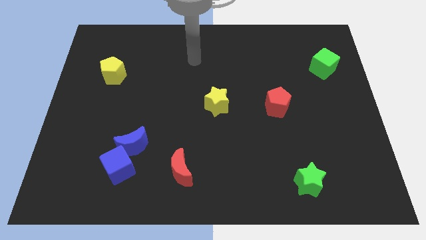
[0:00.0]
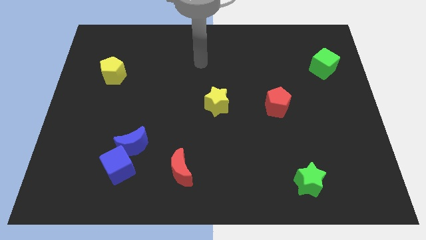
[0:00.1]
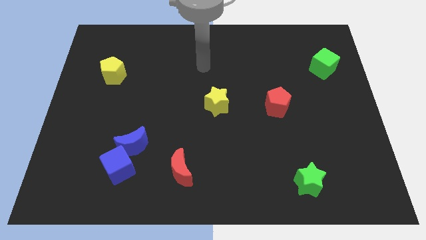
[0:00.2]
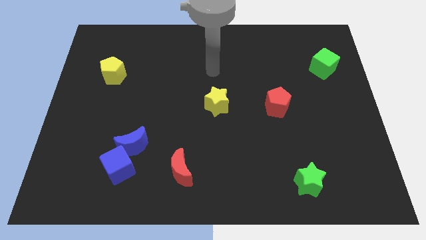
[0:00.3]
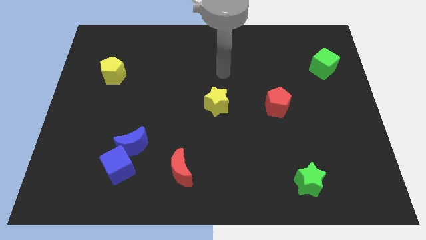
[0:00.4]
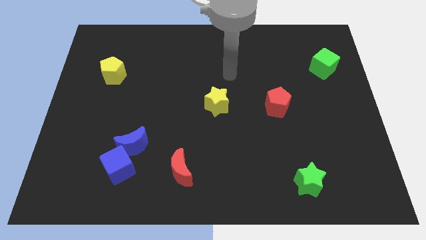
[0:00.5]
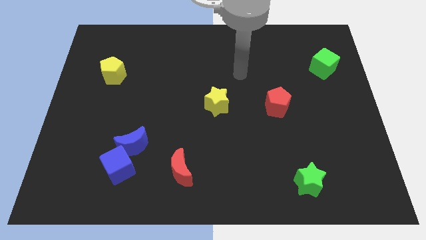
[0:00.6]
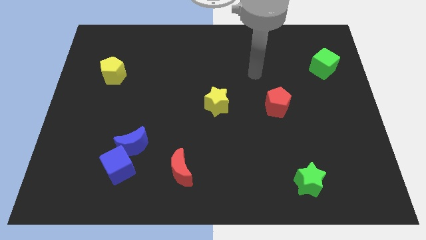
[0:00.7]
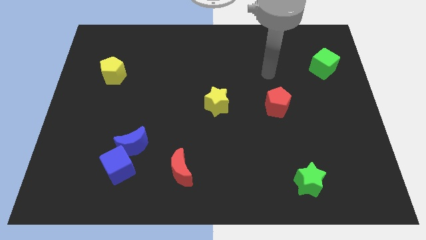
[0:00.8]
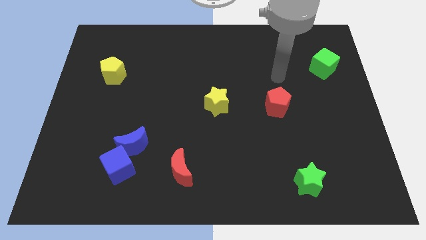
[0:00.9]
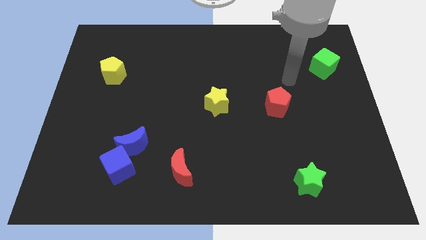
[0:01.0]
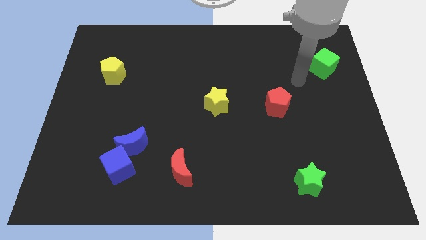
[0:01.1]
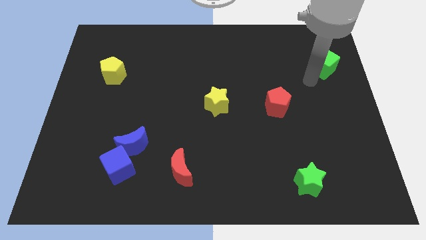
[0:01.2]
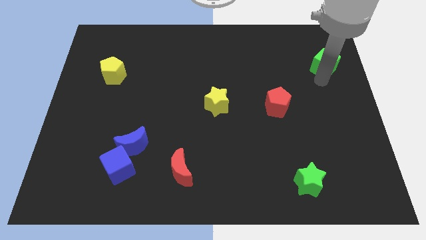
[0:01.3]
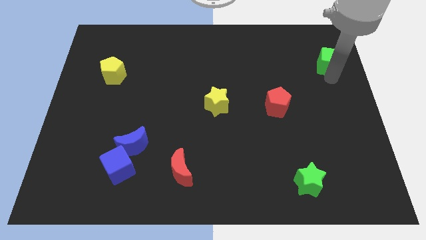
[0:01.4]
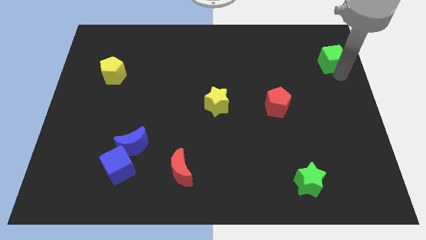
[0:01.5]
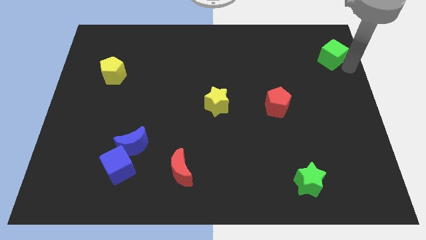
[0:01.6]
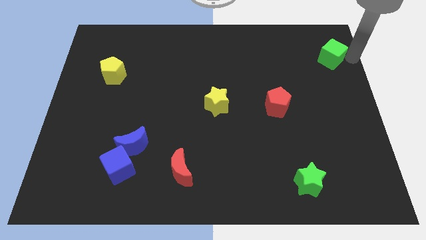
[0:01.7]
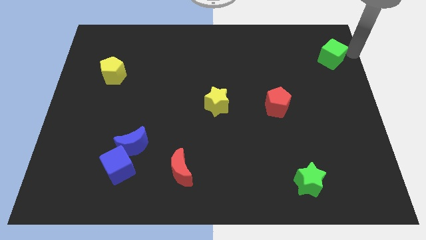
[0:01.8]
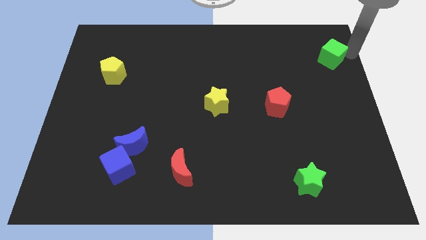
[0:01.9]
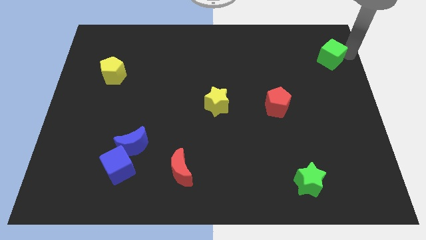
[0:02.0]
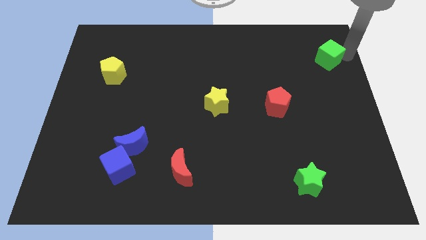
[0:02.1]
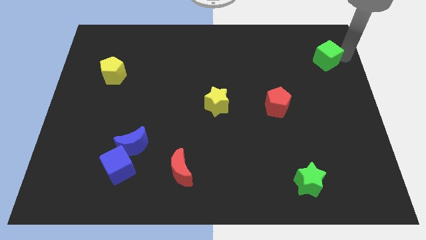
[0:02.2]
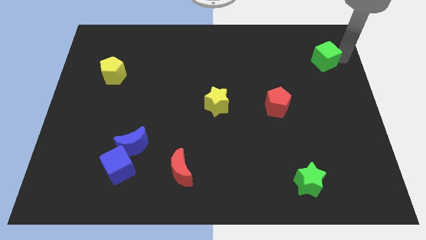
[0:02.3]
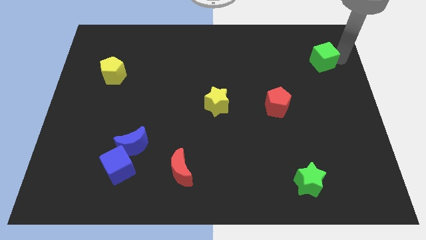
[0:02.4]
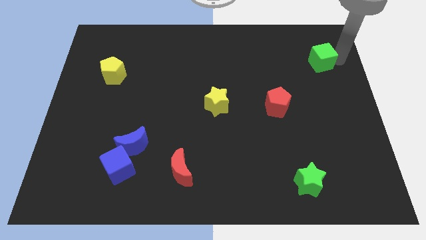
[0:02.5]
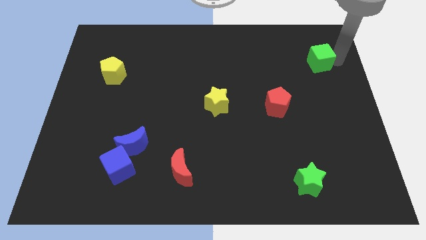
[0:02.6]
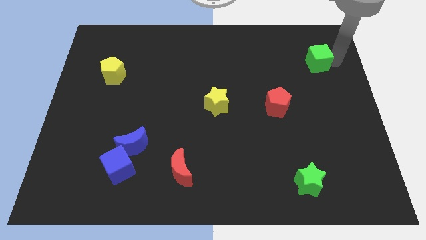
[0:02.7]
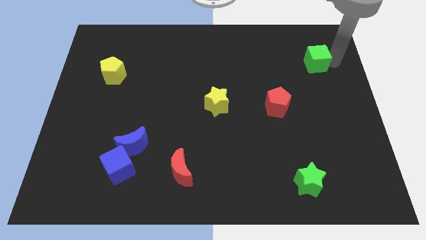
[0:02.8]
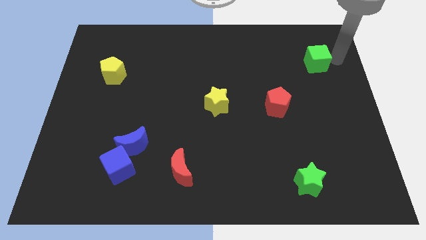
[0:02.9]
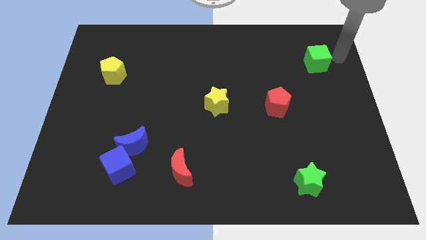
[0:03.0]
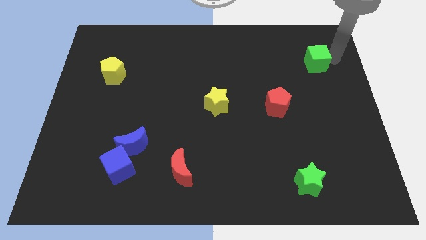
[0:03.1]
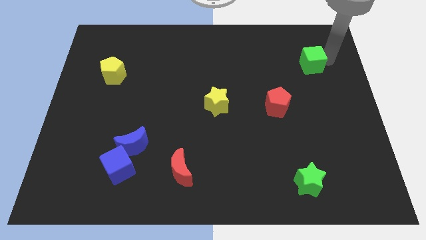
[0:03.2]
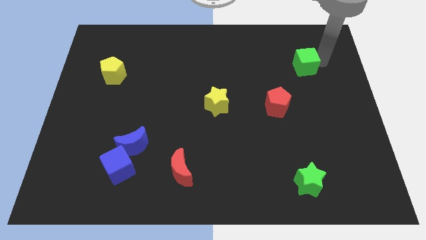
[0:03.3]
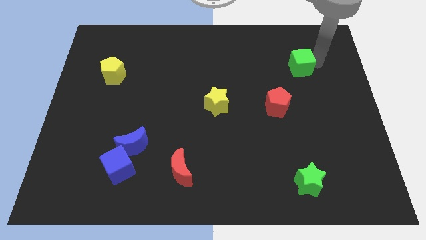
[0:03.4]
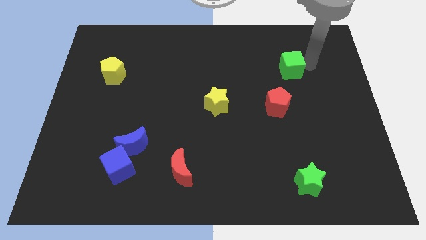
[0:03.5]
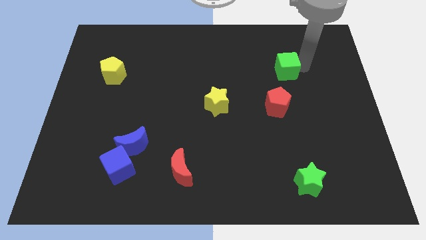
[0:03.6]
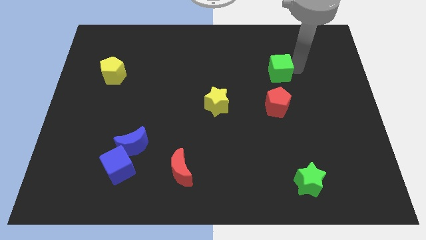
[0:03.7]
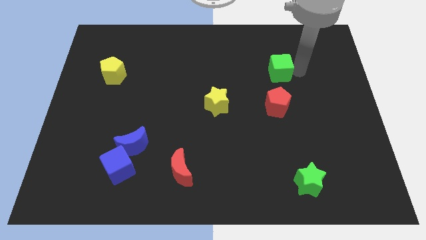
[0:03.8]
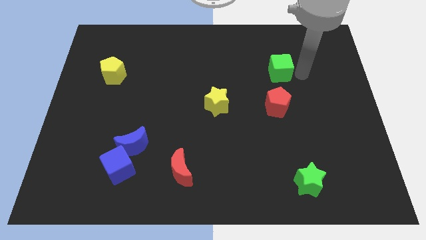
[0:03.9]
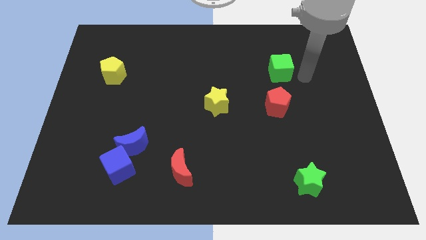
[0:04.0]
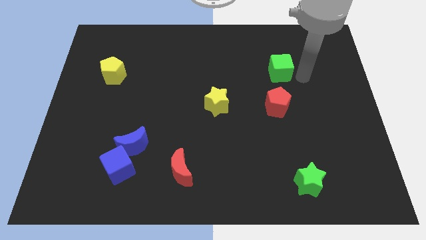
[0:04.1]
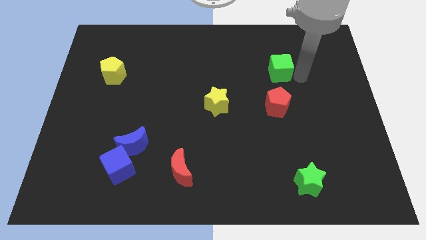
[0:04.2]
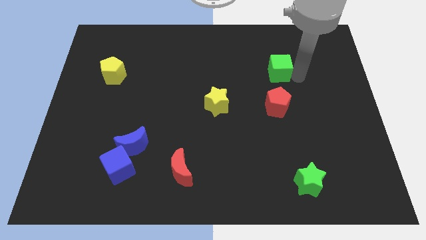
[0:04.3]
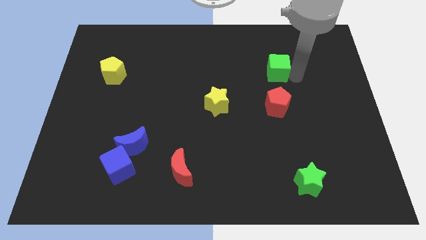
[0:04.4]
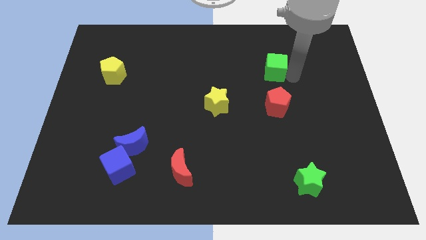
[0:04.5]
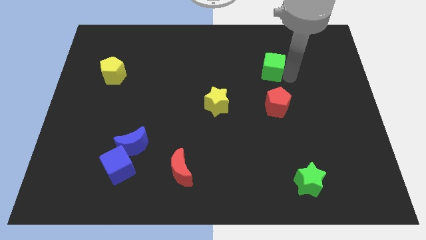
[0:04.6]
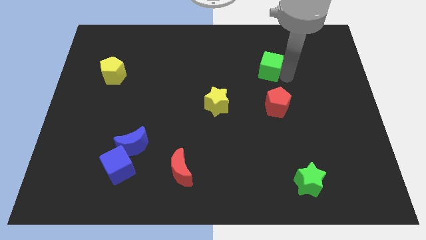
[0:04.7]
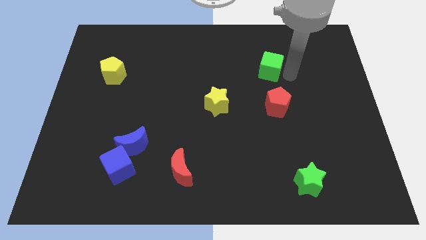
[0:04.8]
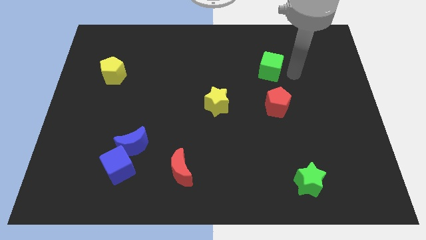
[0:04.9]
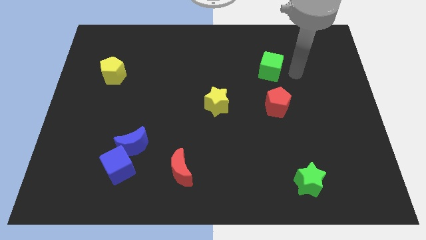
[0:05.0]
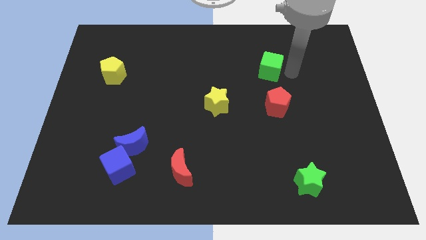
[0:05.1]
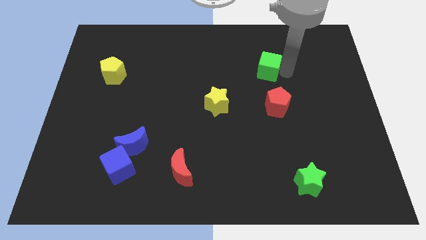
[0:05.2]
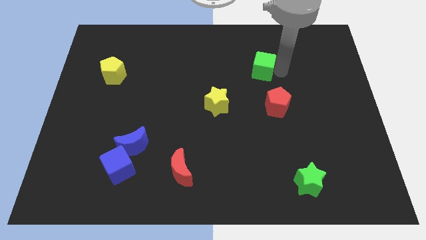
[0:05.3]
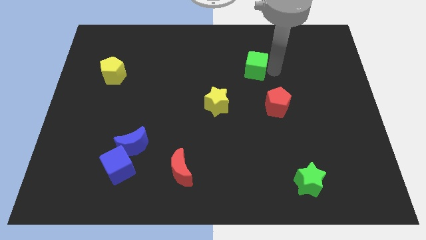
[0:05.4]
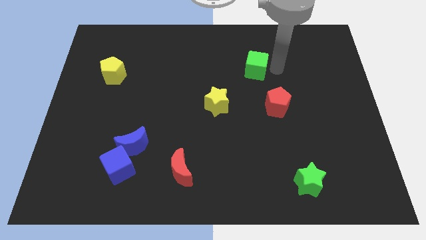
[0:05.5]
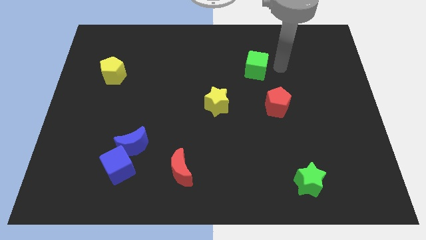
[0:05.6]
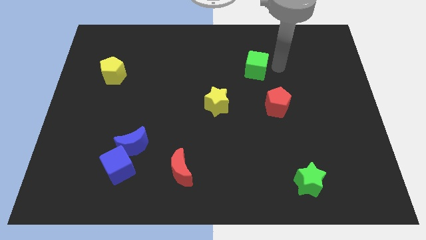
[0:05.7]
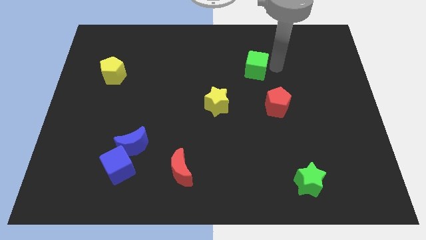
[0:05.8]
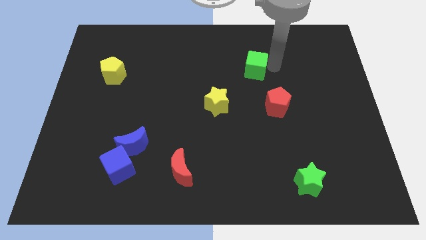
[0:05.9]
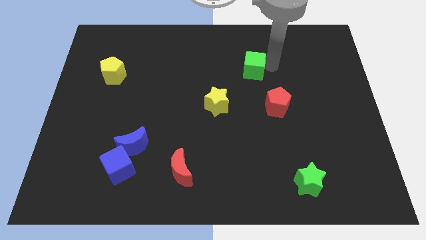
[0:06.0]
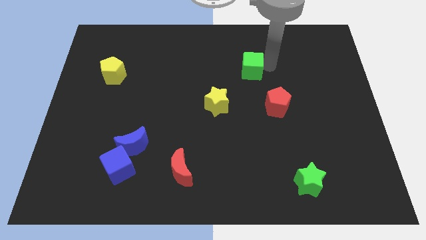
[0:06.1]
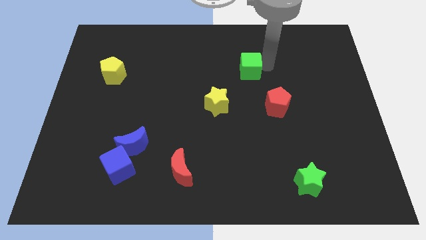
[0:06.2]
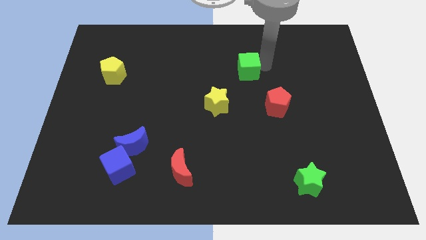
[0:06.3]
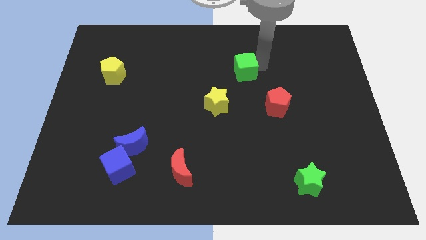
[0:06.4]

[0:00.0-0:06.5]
slide the green cube left

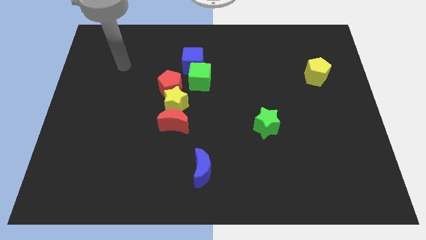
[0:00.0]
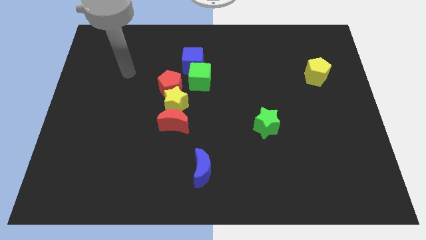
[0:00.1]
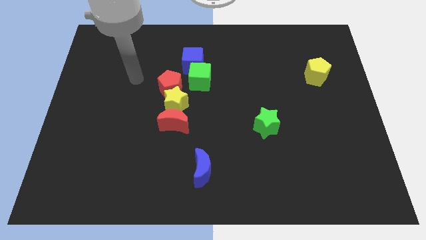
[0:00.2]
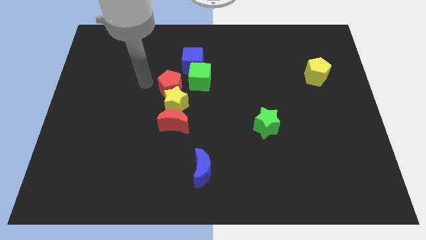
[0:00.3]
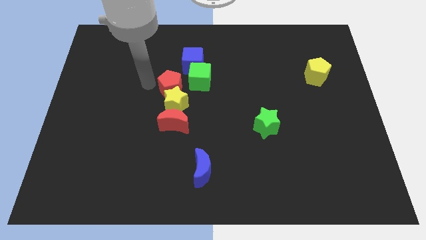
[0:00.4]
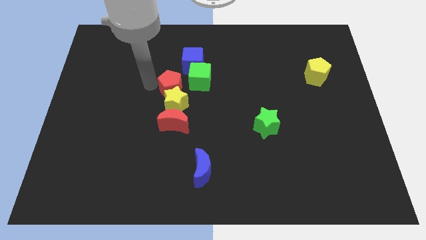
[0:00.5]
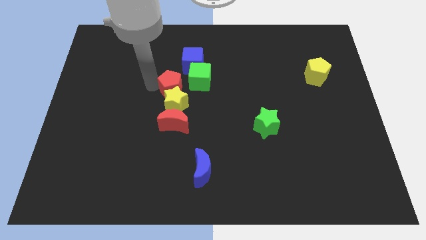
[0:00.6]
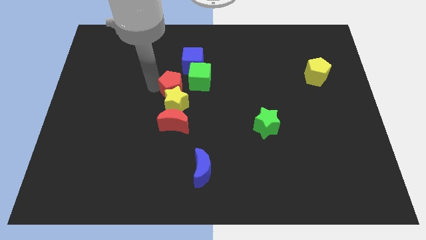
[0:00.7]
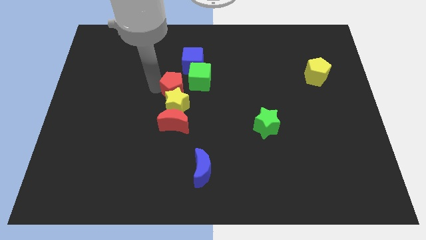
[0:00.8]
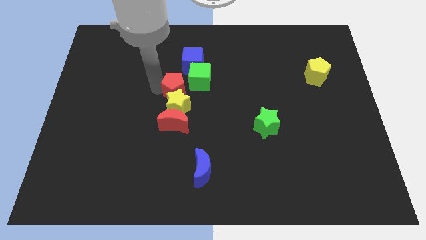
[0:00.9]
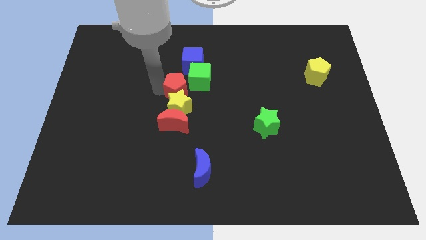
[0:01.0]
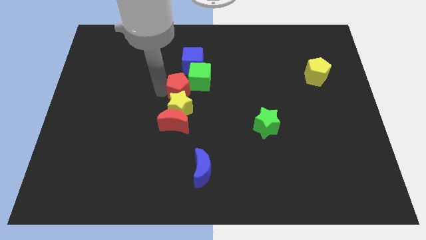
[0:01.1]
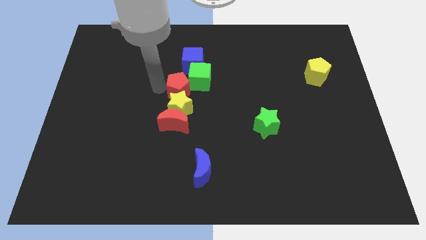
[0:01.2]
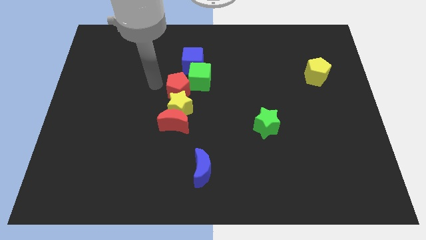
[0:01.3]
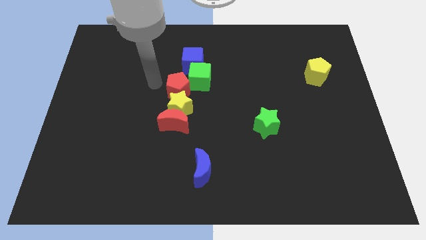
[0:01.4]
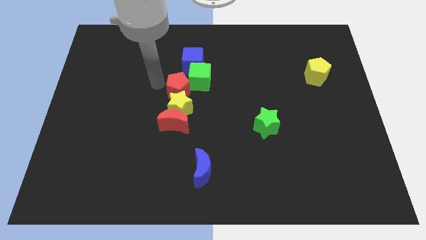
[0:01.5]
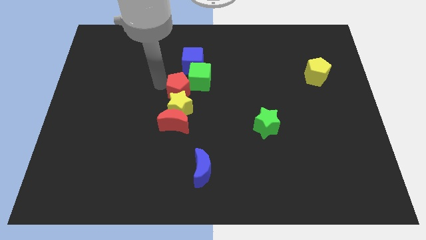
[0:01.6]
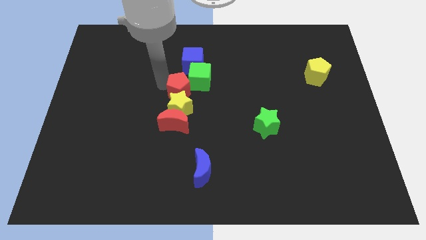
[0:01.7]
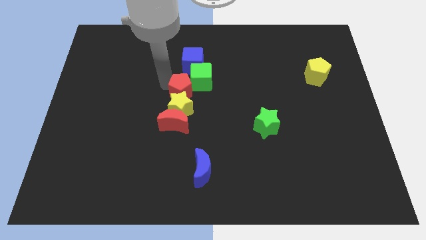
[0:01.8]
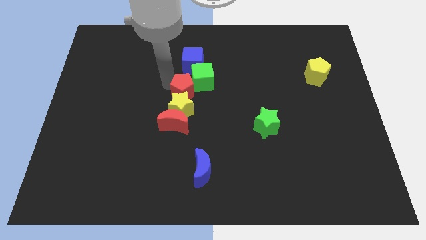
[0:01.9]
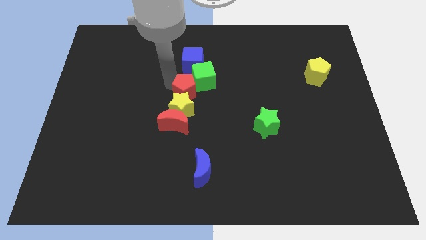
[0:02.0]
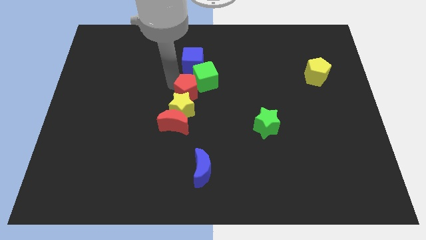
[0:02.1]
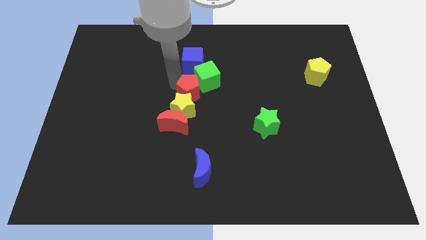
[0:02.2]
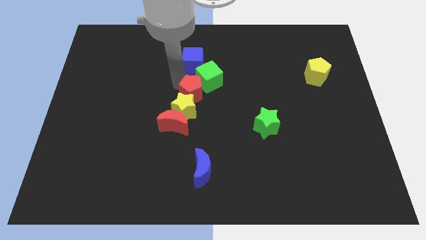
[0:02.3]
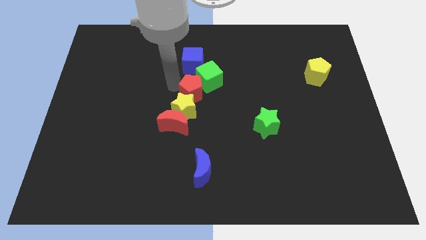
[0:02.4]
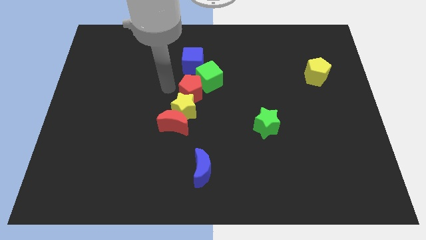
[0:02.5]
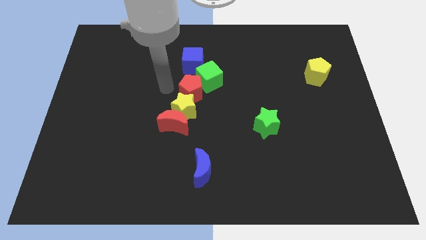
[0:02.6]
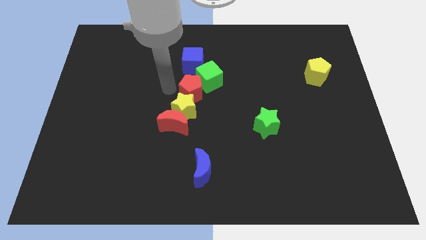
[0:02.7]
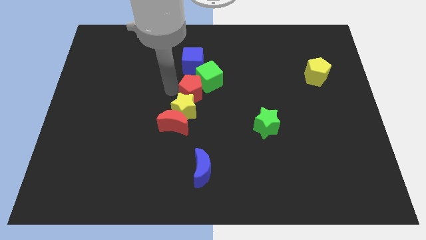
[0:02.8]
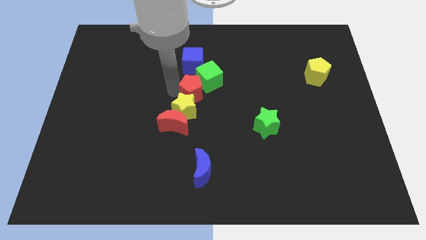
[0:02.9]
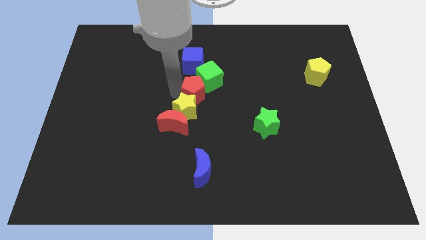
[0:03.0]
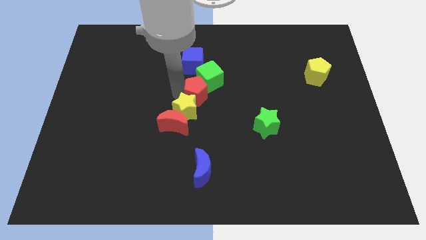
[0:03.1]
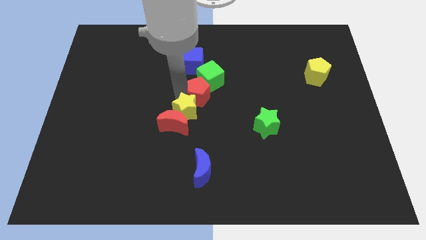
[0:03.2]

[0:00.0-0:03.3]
slightly move the red pentagon to the right
